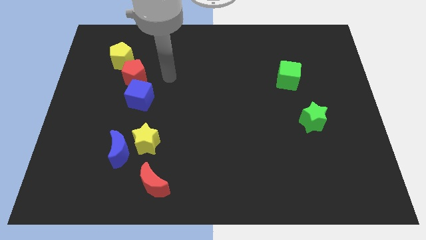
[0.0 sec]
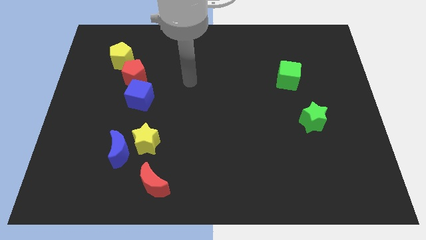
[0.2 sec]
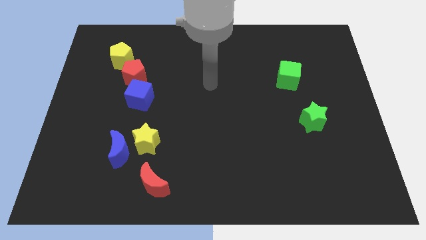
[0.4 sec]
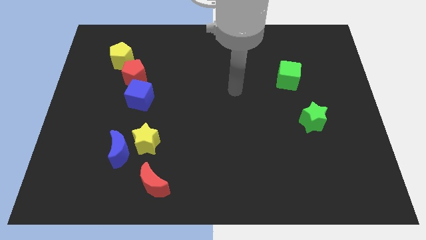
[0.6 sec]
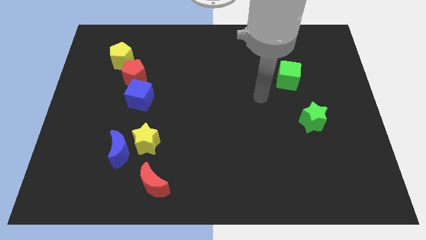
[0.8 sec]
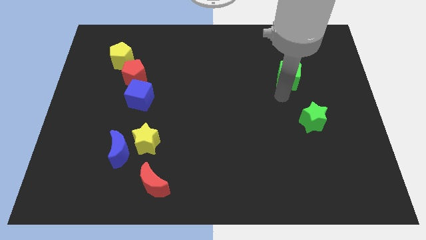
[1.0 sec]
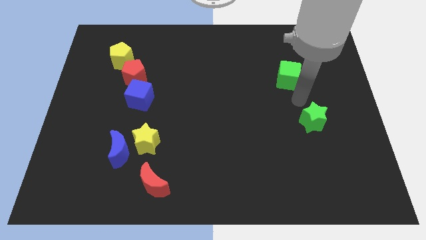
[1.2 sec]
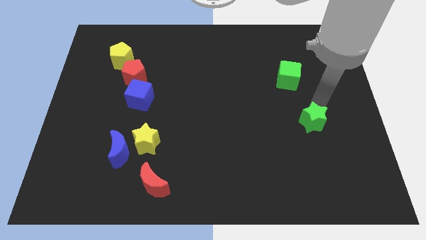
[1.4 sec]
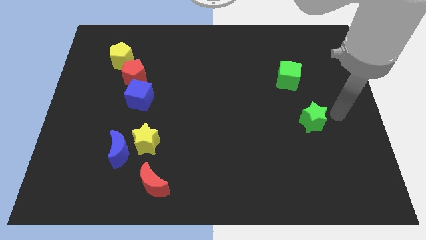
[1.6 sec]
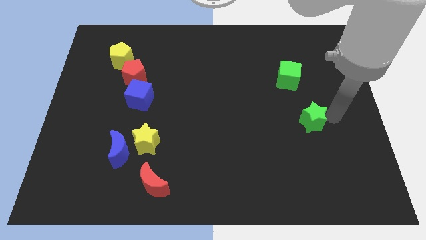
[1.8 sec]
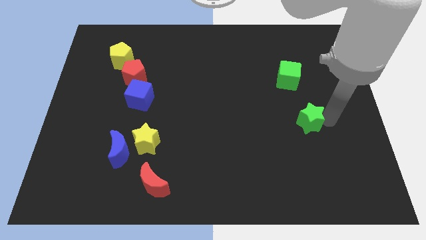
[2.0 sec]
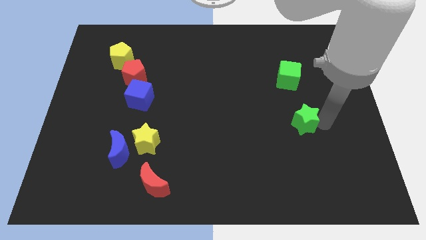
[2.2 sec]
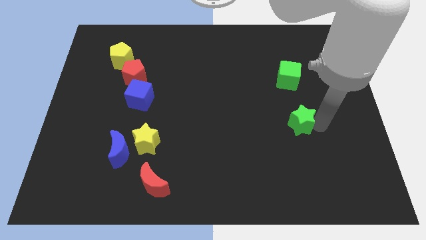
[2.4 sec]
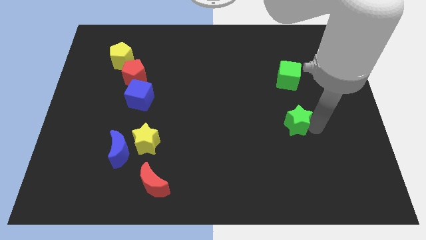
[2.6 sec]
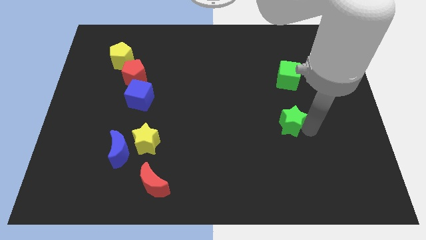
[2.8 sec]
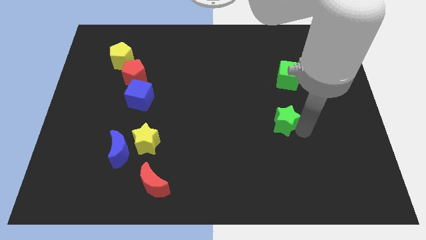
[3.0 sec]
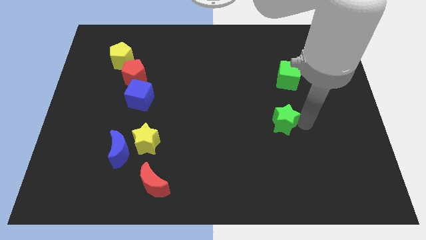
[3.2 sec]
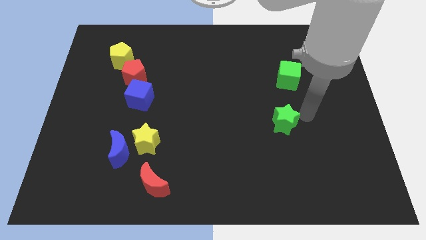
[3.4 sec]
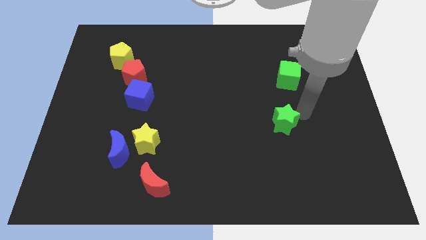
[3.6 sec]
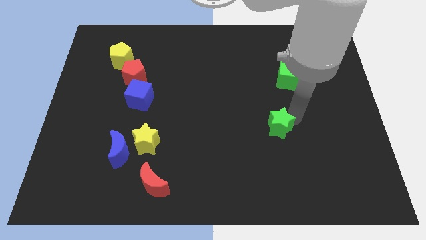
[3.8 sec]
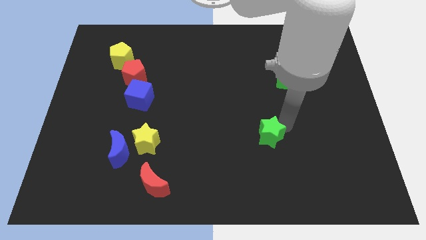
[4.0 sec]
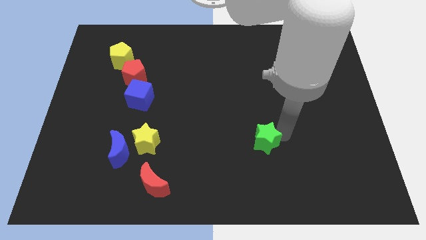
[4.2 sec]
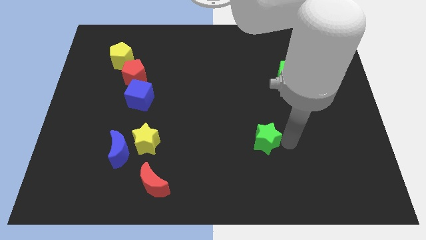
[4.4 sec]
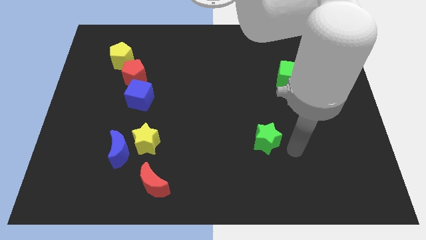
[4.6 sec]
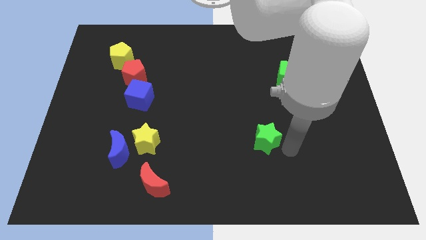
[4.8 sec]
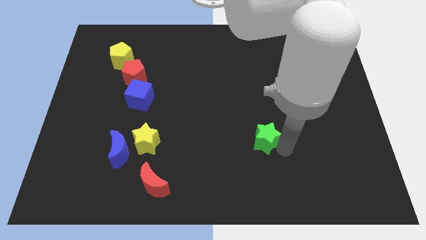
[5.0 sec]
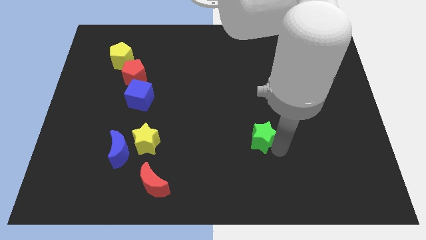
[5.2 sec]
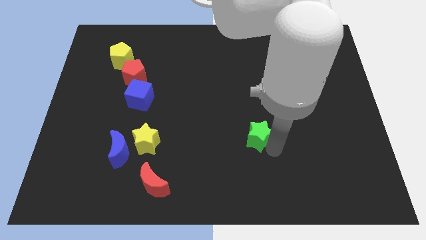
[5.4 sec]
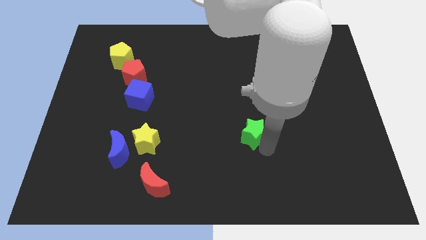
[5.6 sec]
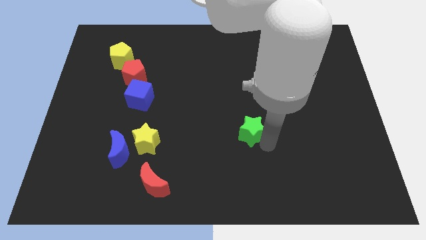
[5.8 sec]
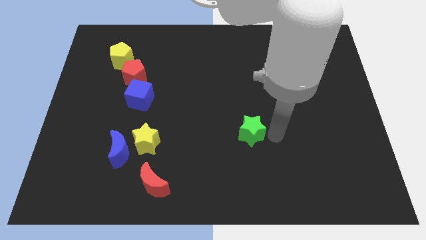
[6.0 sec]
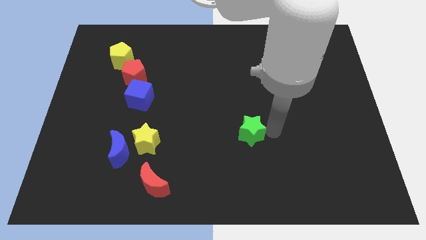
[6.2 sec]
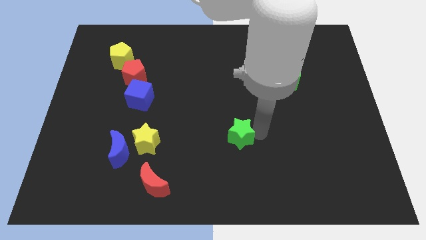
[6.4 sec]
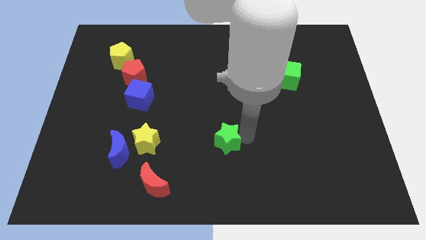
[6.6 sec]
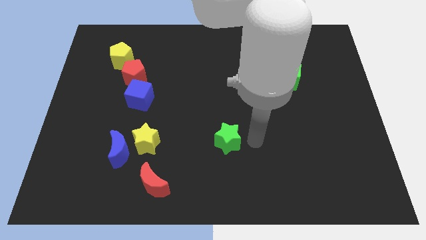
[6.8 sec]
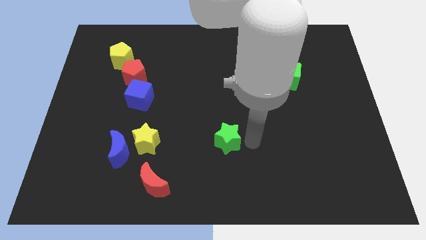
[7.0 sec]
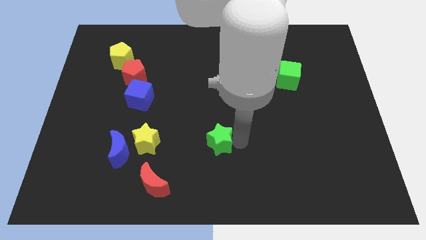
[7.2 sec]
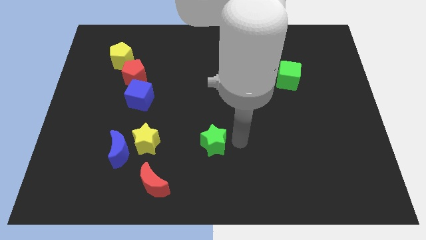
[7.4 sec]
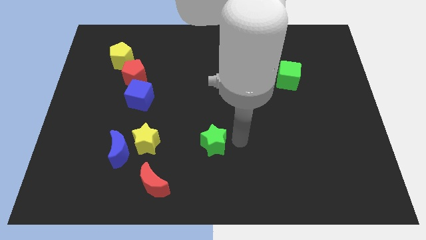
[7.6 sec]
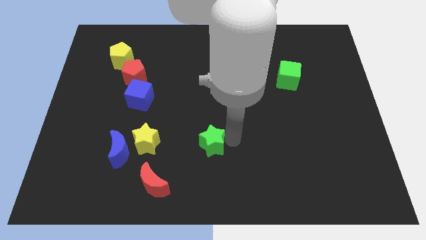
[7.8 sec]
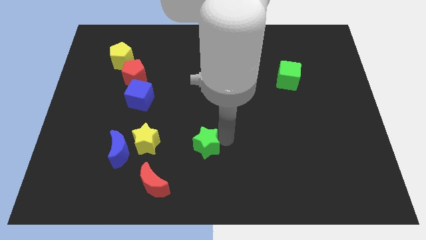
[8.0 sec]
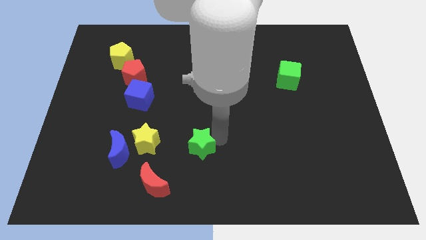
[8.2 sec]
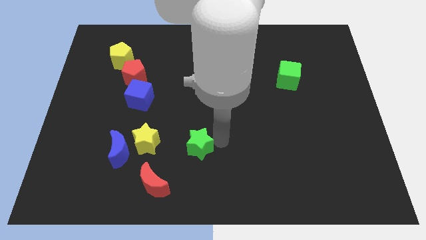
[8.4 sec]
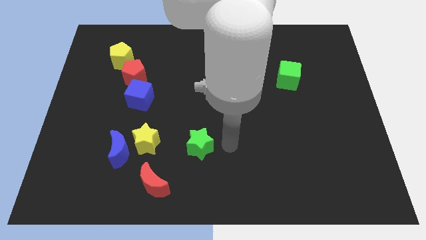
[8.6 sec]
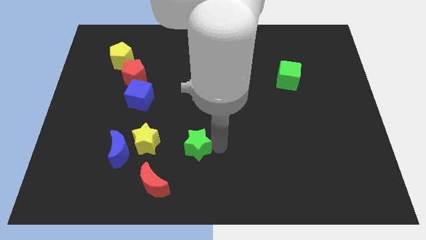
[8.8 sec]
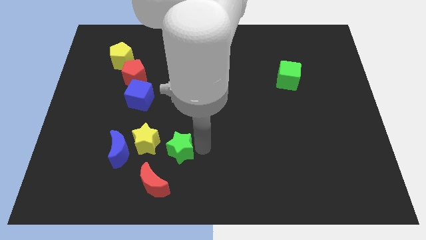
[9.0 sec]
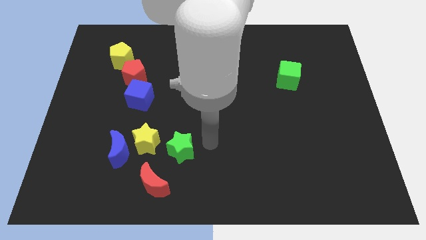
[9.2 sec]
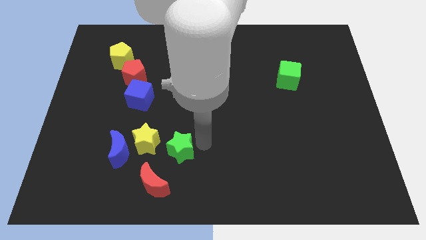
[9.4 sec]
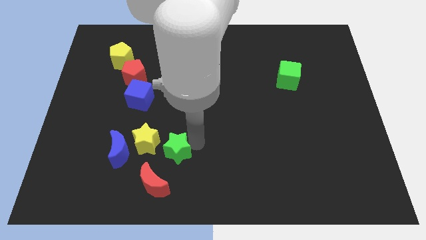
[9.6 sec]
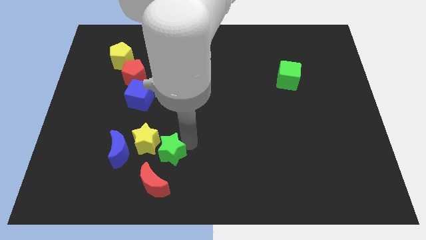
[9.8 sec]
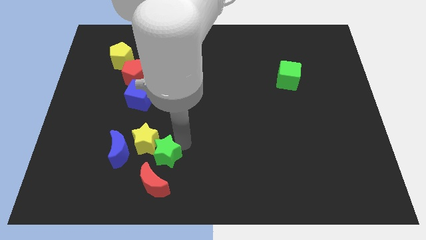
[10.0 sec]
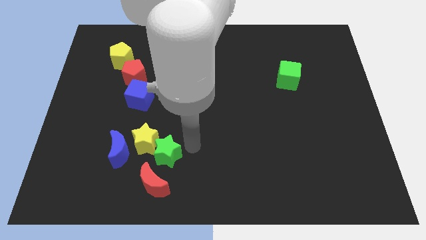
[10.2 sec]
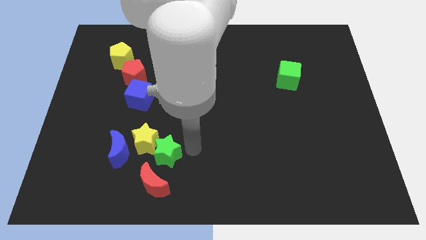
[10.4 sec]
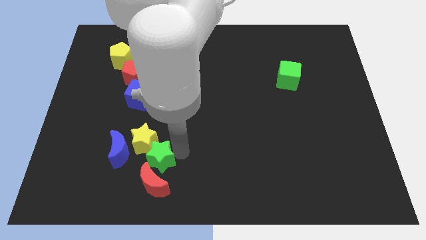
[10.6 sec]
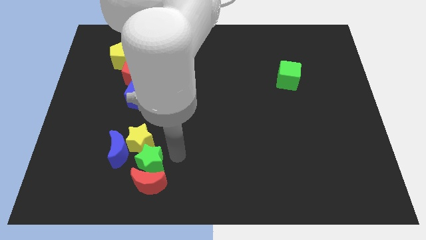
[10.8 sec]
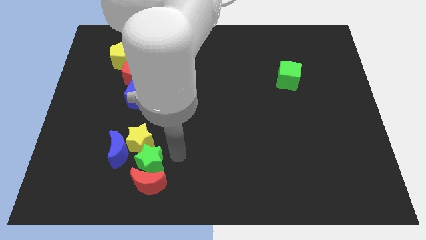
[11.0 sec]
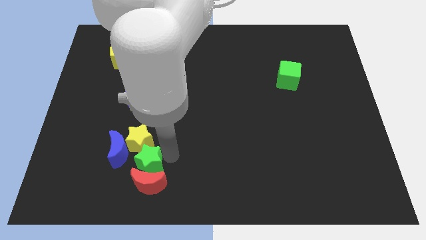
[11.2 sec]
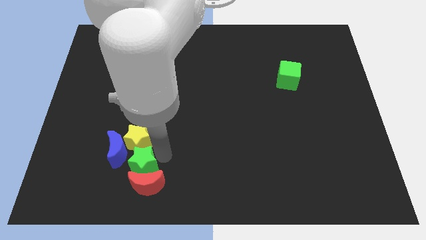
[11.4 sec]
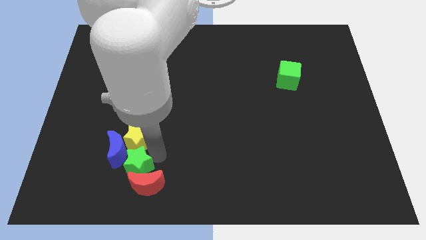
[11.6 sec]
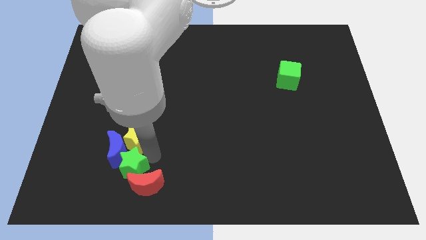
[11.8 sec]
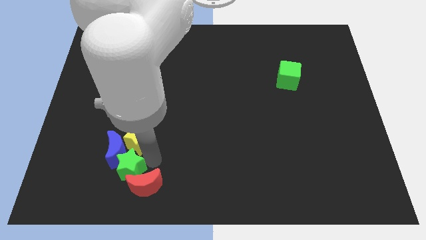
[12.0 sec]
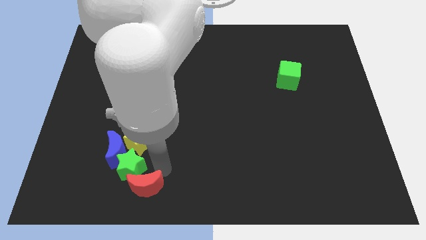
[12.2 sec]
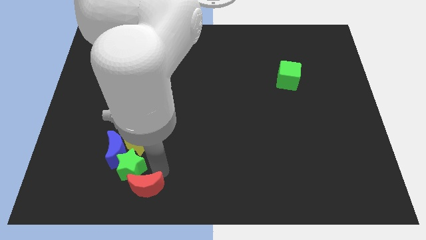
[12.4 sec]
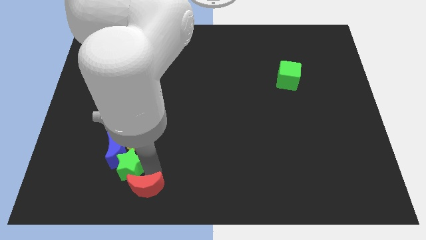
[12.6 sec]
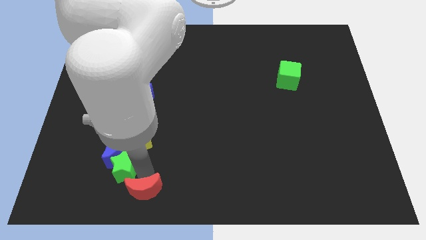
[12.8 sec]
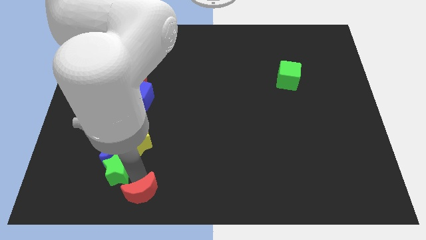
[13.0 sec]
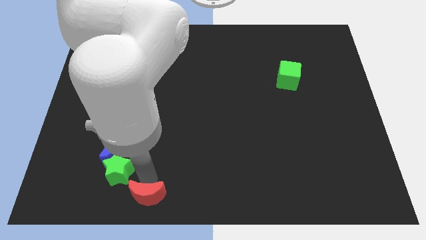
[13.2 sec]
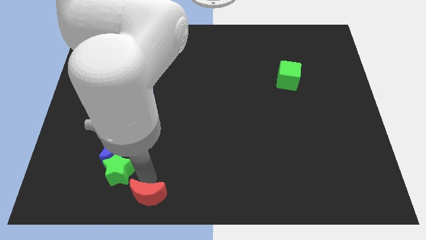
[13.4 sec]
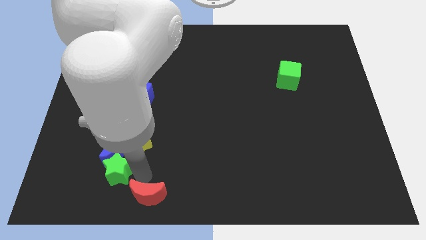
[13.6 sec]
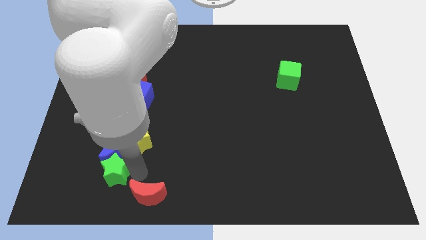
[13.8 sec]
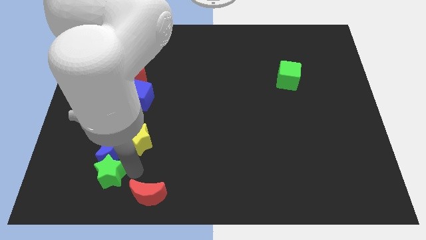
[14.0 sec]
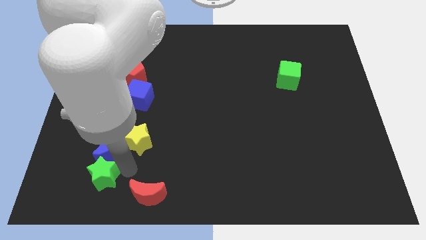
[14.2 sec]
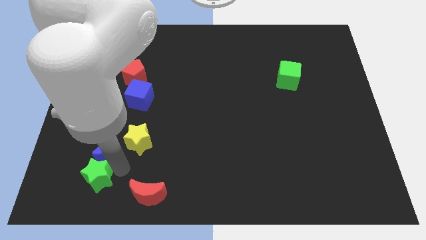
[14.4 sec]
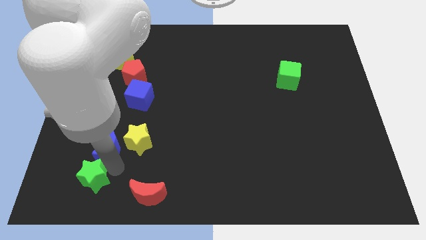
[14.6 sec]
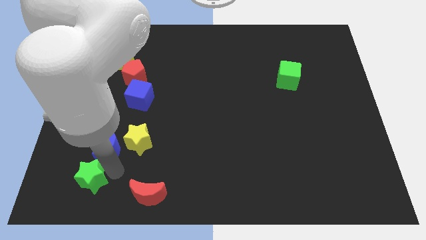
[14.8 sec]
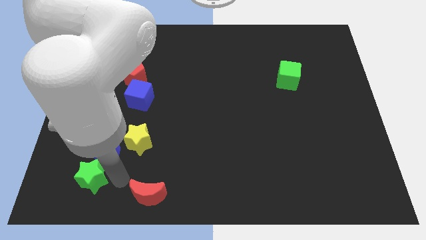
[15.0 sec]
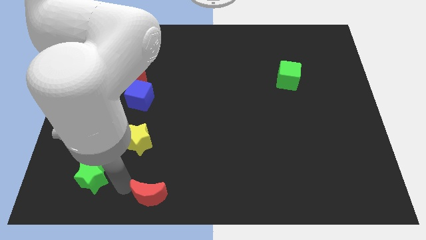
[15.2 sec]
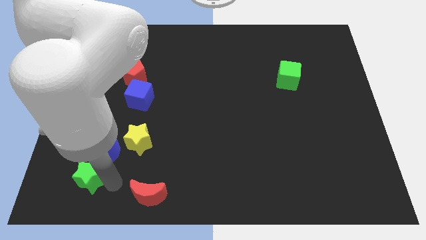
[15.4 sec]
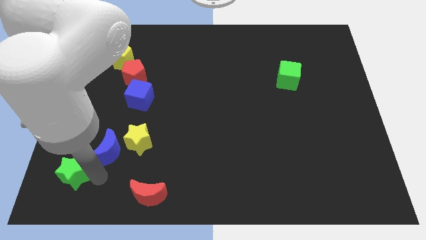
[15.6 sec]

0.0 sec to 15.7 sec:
move the green star to the lower left corner
